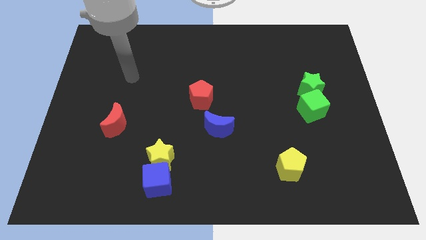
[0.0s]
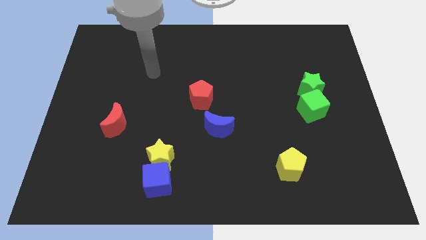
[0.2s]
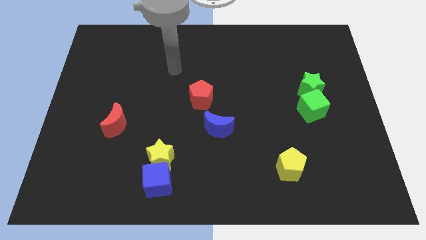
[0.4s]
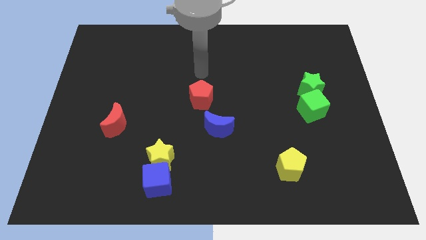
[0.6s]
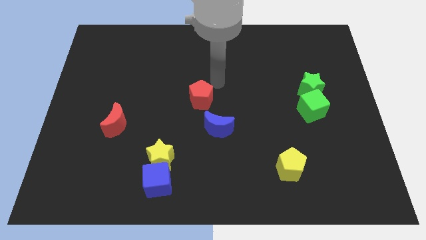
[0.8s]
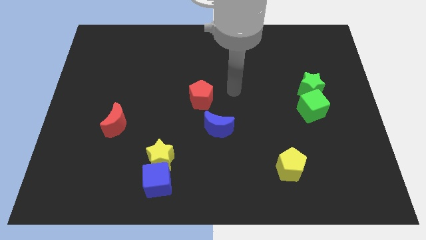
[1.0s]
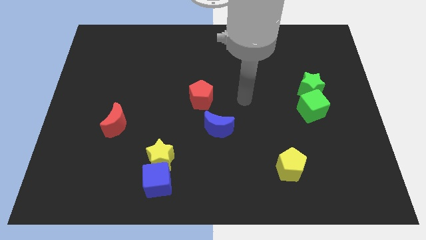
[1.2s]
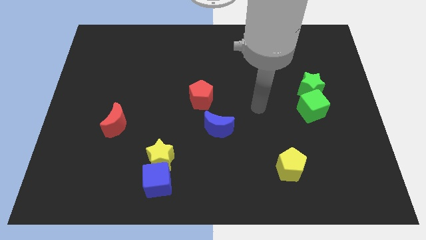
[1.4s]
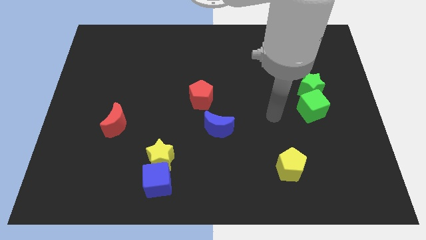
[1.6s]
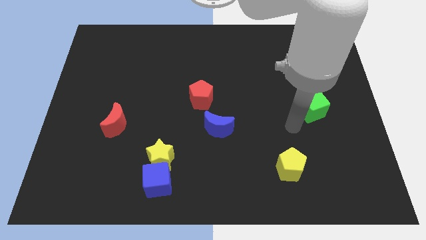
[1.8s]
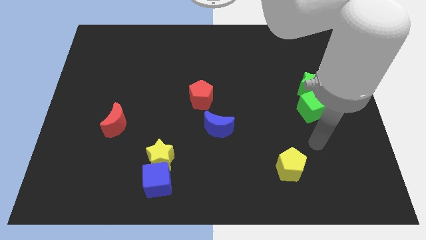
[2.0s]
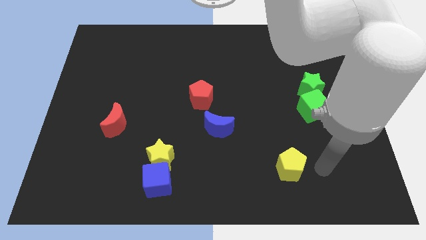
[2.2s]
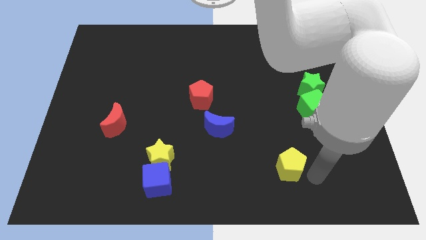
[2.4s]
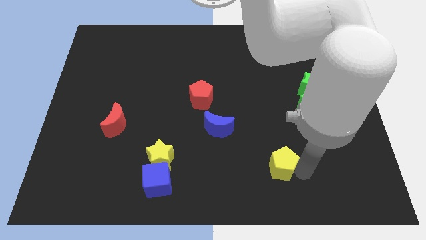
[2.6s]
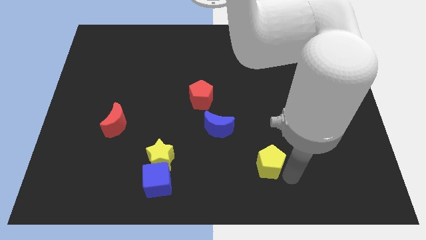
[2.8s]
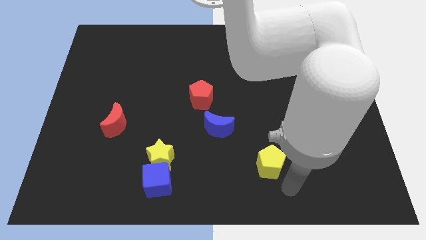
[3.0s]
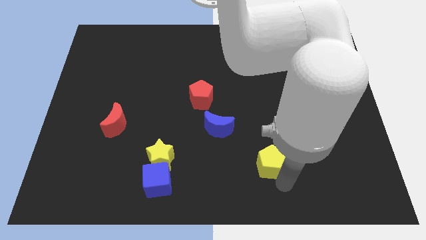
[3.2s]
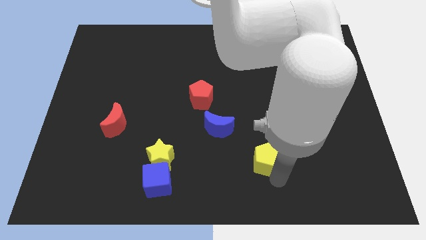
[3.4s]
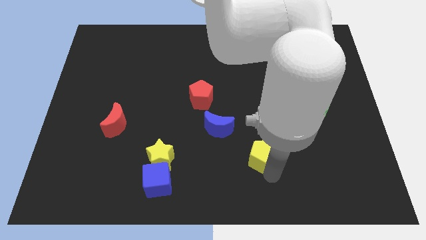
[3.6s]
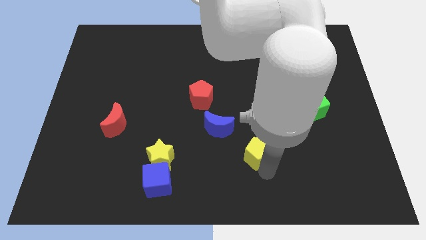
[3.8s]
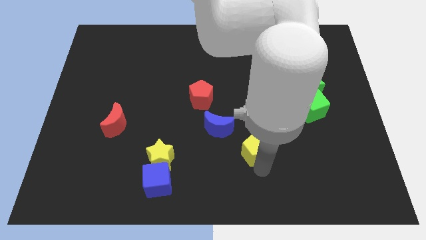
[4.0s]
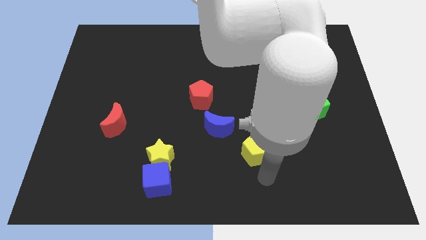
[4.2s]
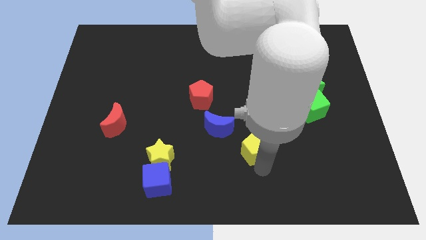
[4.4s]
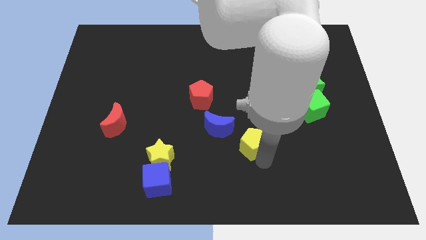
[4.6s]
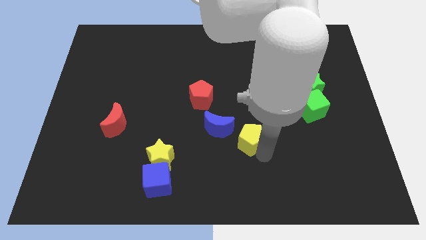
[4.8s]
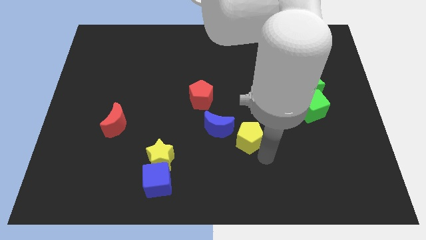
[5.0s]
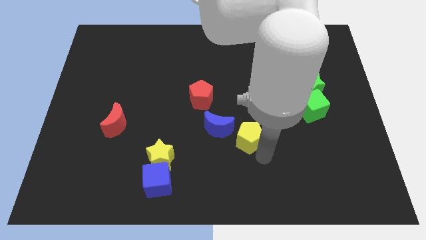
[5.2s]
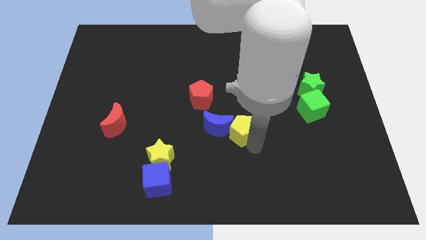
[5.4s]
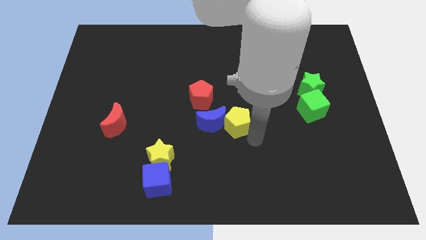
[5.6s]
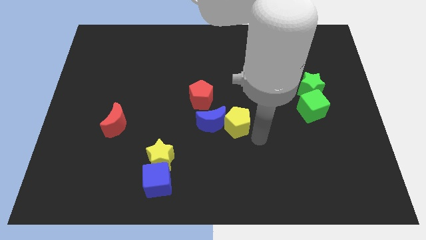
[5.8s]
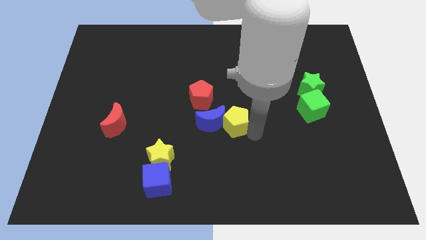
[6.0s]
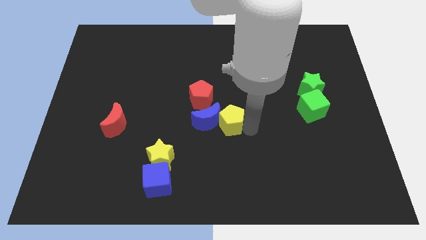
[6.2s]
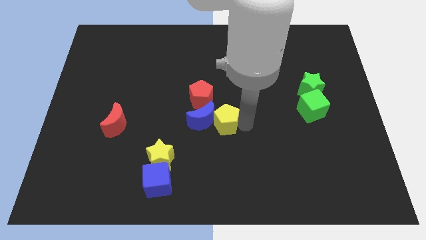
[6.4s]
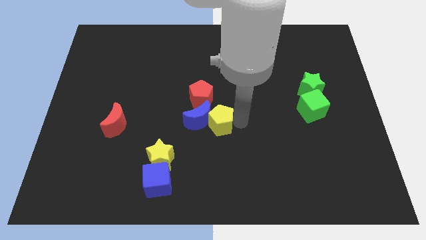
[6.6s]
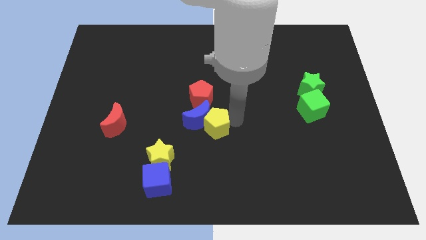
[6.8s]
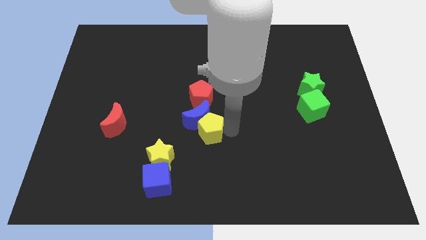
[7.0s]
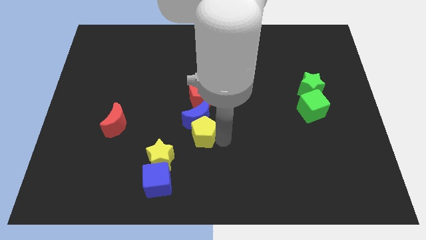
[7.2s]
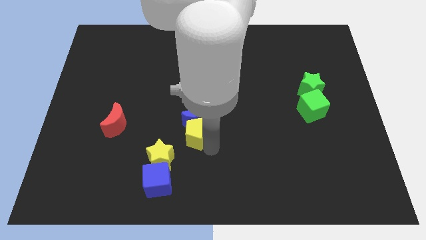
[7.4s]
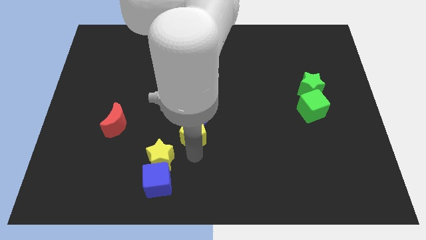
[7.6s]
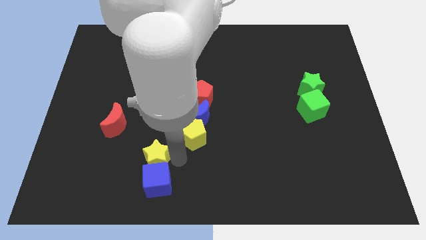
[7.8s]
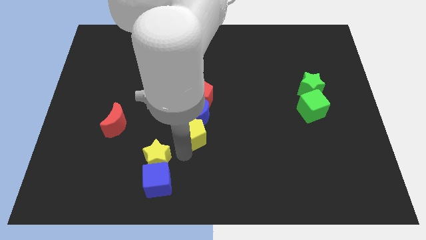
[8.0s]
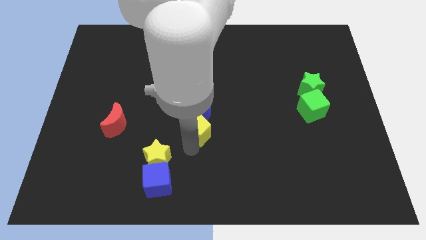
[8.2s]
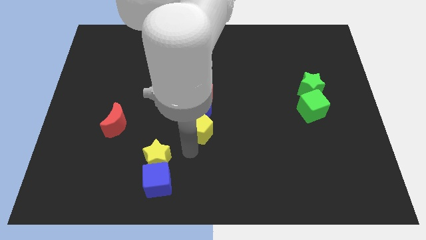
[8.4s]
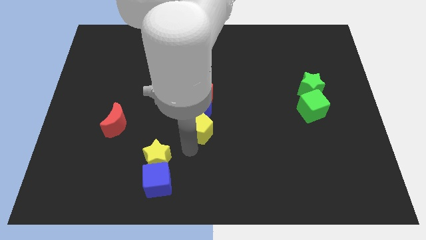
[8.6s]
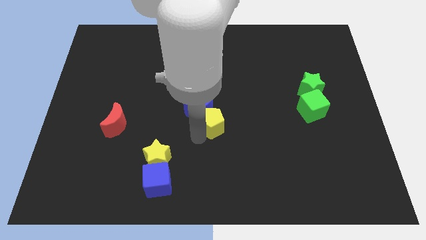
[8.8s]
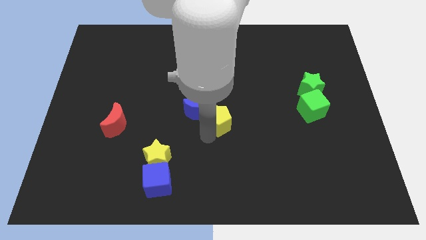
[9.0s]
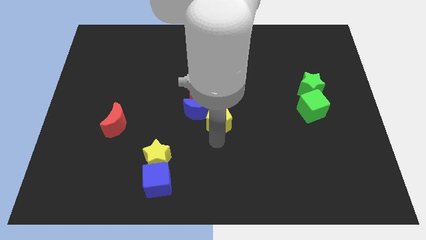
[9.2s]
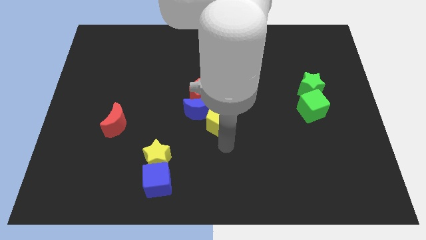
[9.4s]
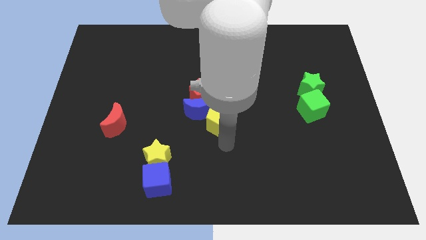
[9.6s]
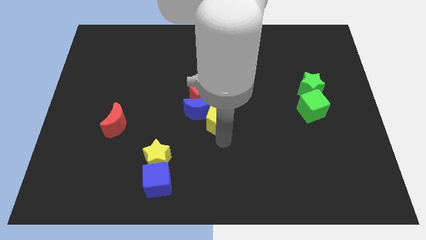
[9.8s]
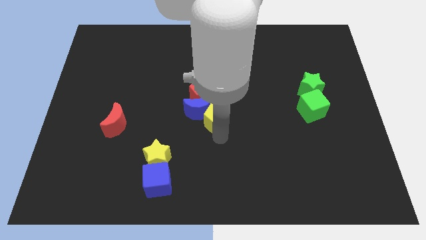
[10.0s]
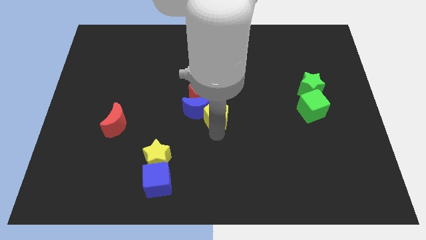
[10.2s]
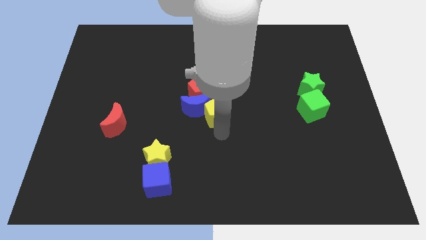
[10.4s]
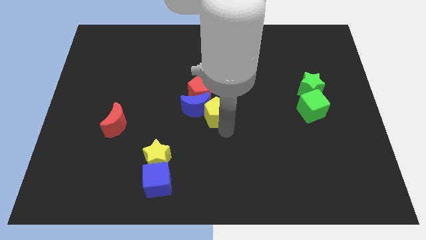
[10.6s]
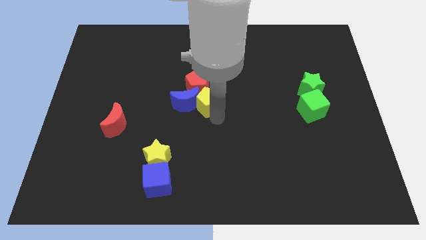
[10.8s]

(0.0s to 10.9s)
put the yellow pentagon next to the red pentagon

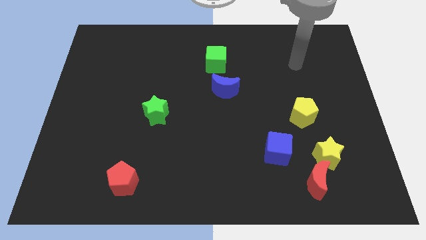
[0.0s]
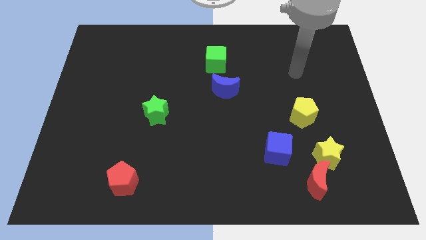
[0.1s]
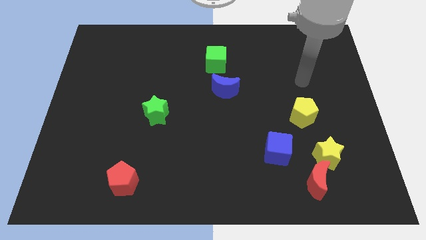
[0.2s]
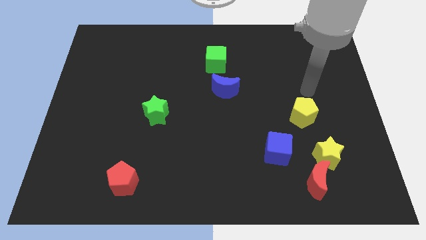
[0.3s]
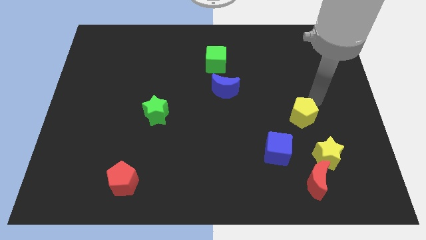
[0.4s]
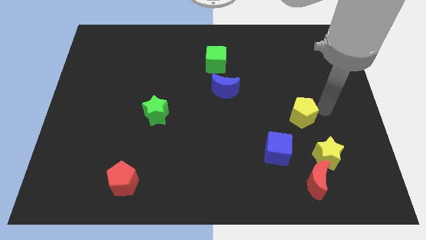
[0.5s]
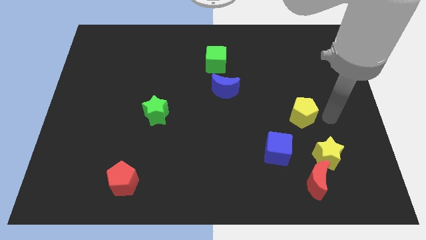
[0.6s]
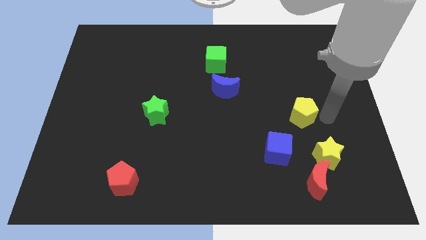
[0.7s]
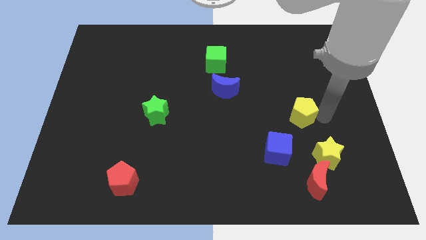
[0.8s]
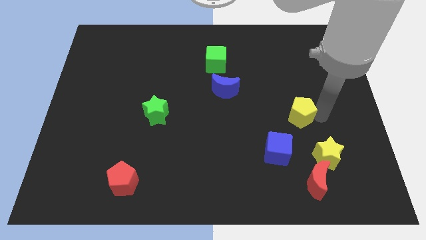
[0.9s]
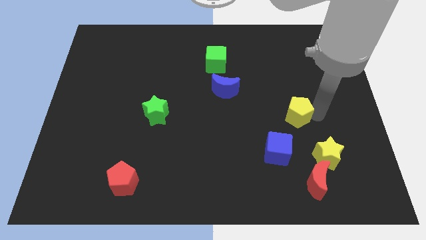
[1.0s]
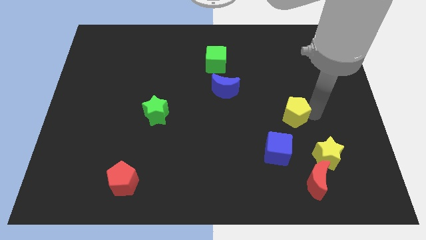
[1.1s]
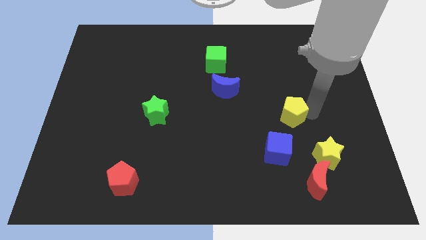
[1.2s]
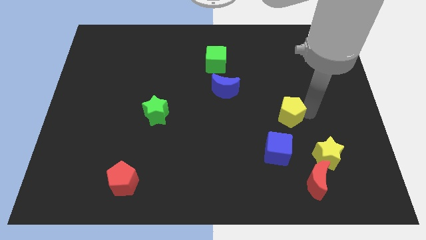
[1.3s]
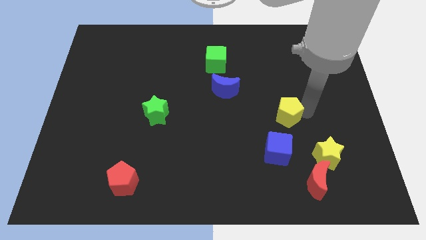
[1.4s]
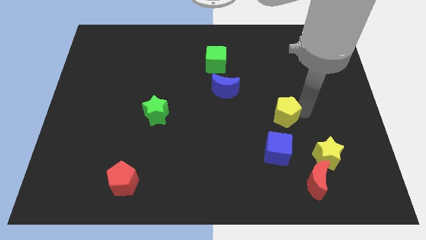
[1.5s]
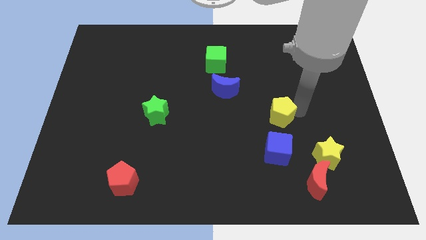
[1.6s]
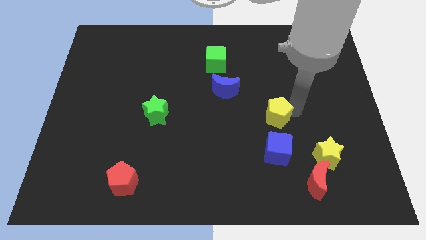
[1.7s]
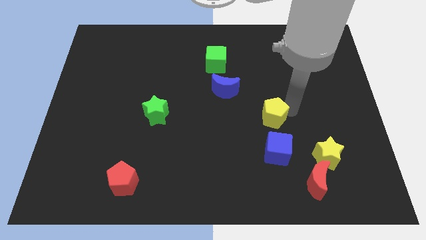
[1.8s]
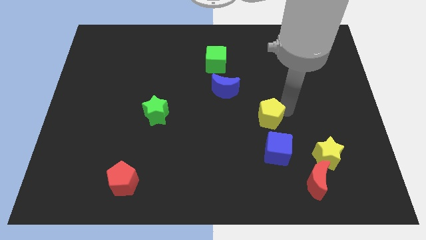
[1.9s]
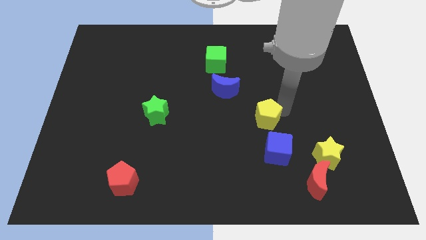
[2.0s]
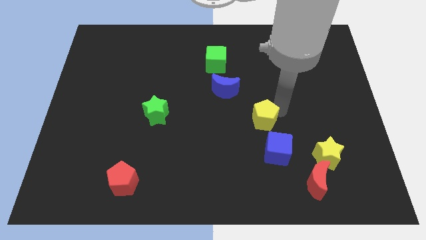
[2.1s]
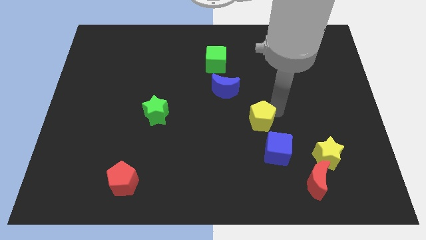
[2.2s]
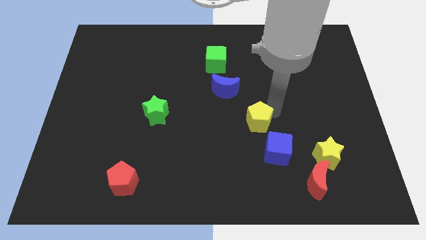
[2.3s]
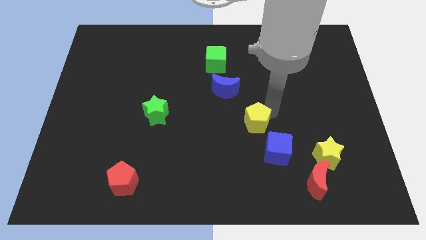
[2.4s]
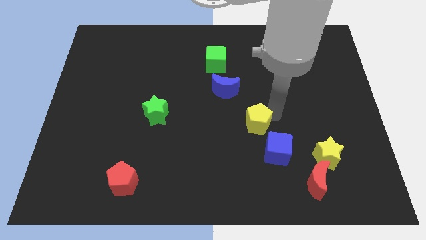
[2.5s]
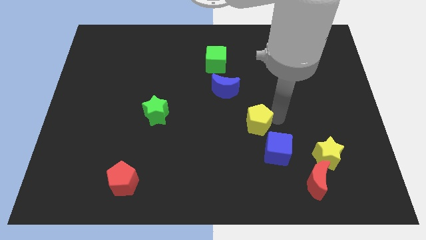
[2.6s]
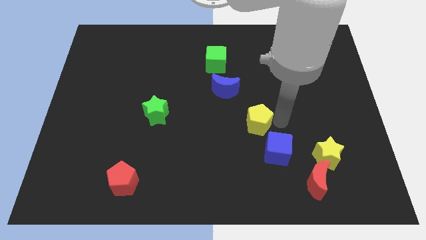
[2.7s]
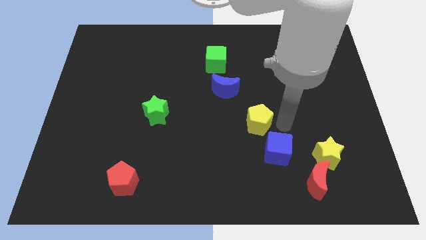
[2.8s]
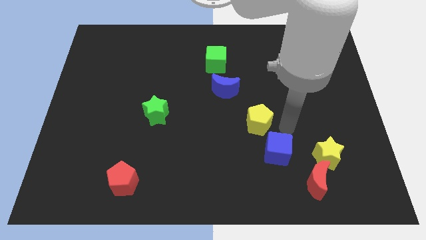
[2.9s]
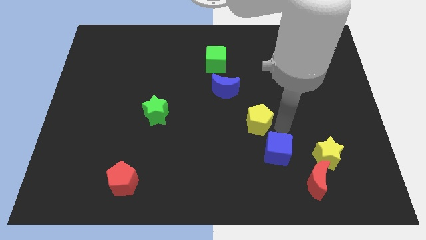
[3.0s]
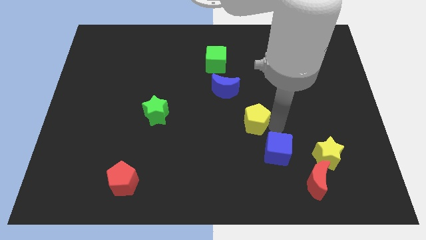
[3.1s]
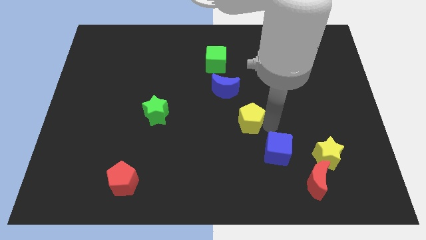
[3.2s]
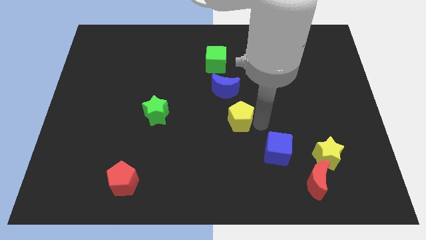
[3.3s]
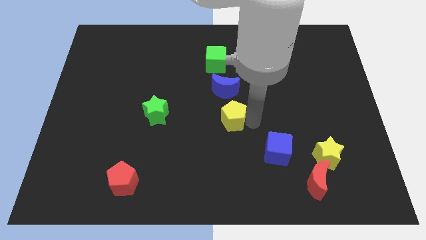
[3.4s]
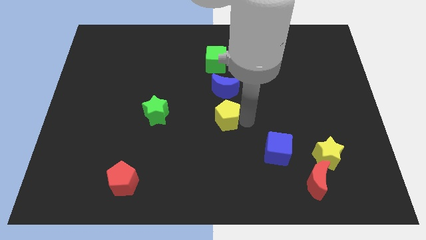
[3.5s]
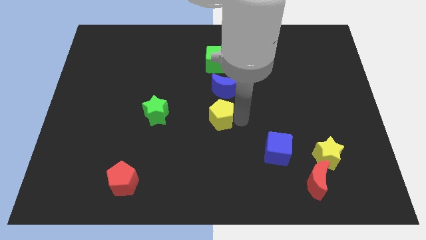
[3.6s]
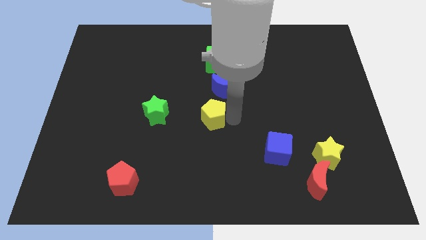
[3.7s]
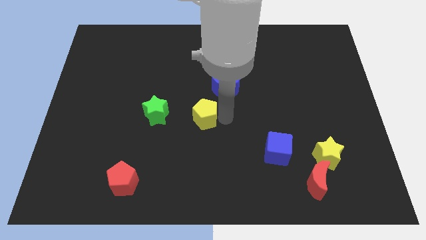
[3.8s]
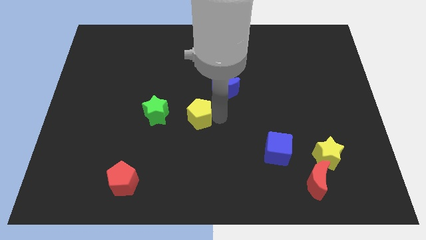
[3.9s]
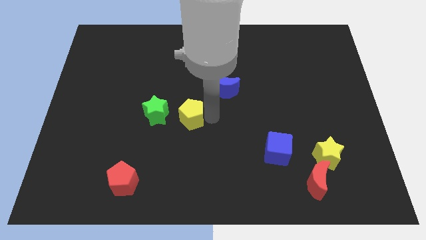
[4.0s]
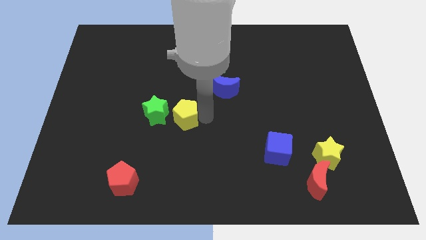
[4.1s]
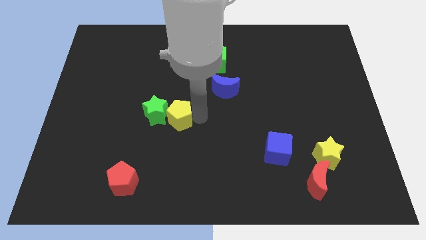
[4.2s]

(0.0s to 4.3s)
move the yellow pentagon close to the green star
